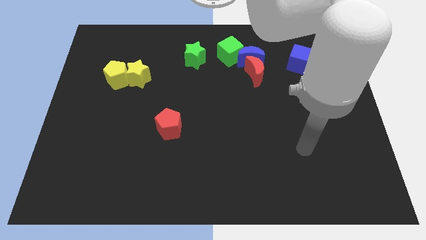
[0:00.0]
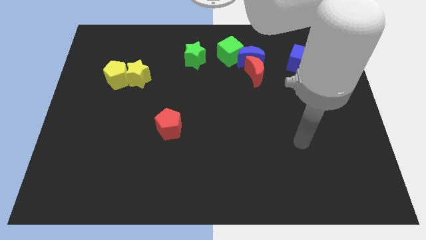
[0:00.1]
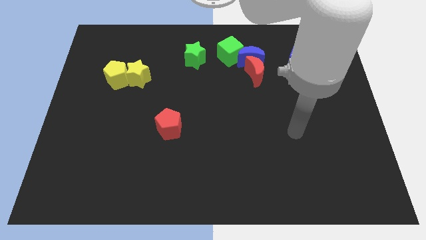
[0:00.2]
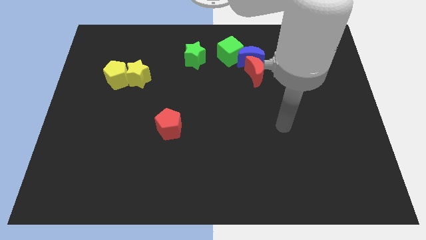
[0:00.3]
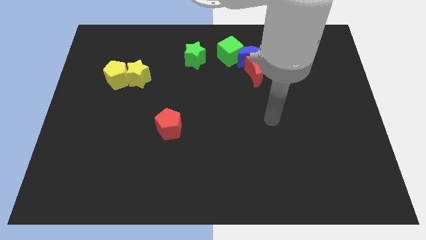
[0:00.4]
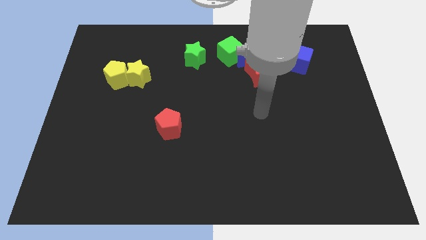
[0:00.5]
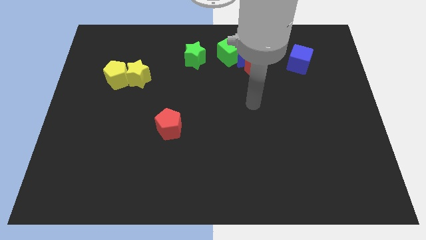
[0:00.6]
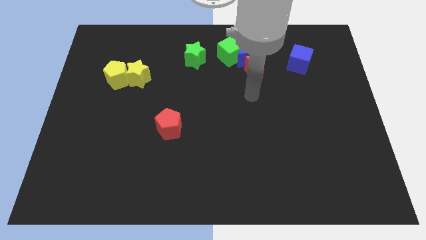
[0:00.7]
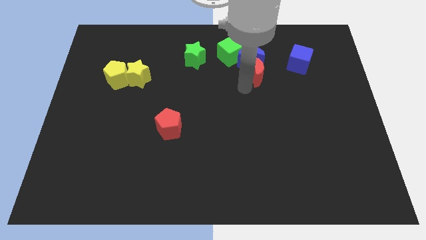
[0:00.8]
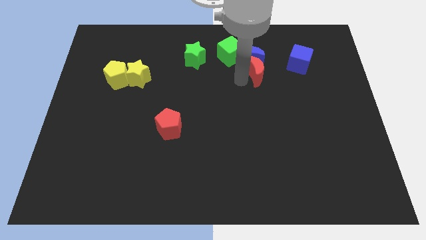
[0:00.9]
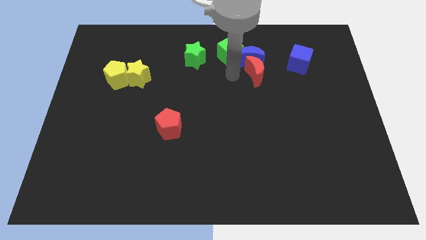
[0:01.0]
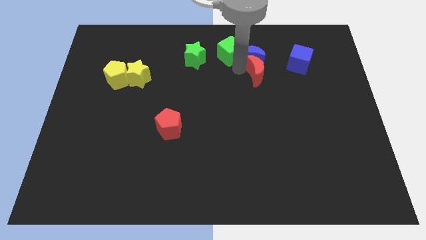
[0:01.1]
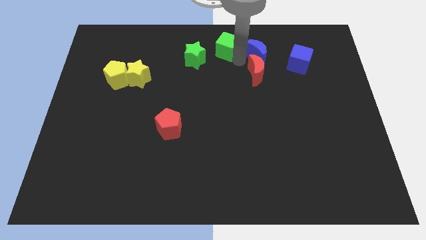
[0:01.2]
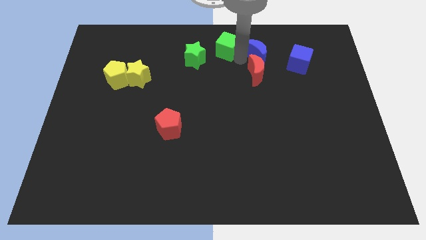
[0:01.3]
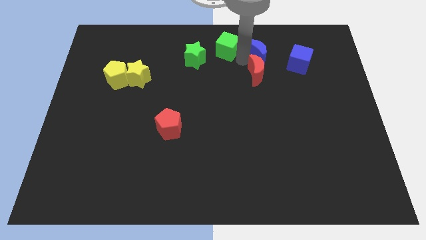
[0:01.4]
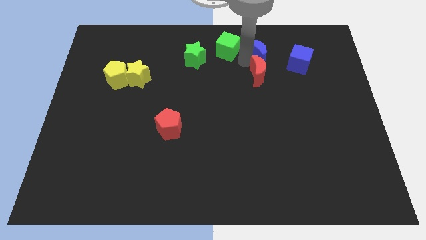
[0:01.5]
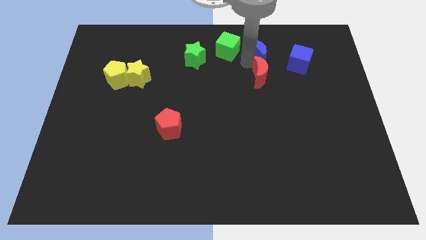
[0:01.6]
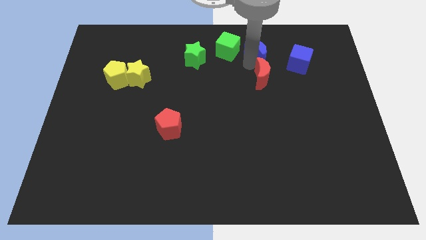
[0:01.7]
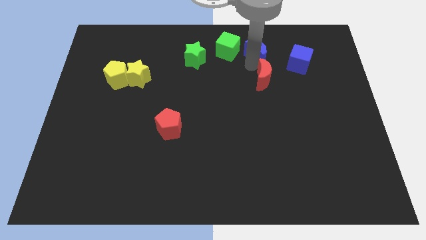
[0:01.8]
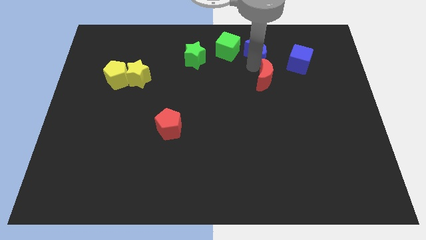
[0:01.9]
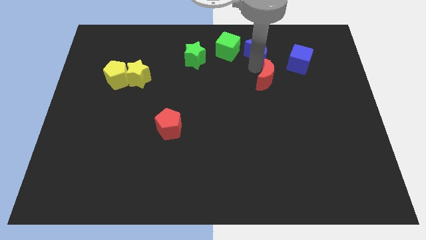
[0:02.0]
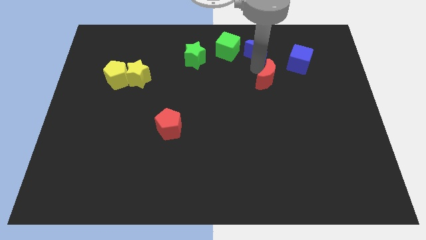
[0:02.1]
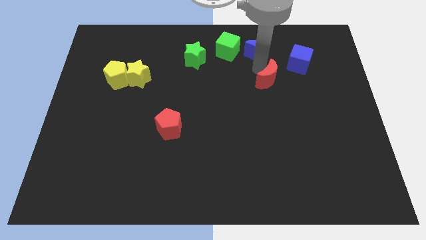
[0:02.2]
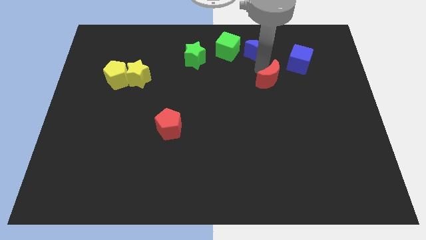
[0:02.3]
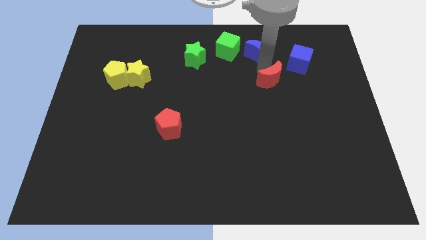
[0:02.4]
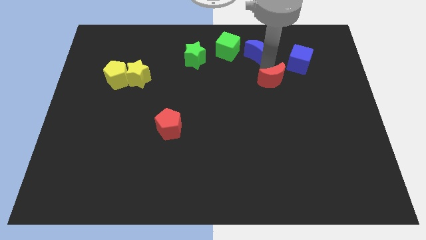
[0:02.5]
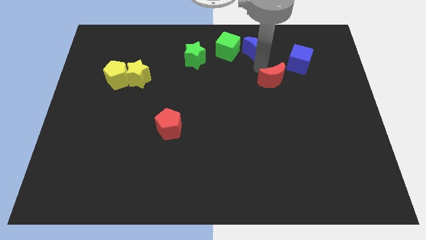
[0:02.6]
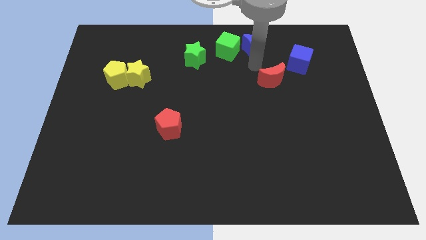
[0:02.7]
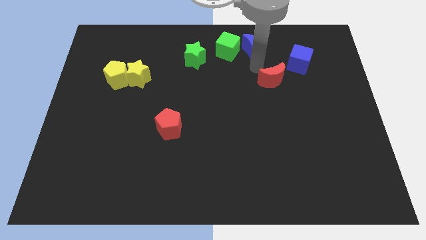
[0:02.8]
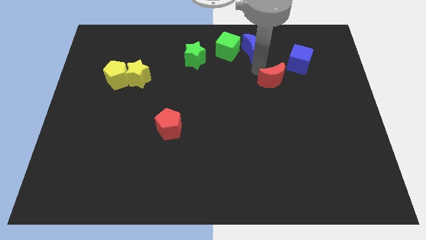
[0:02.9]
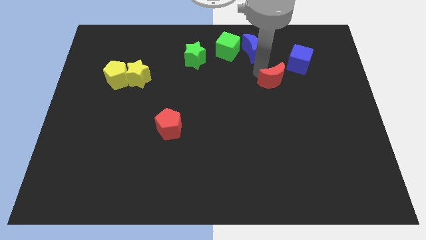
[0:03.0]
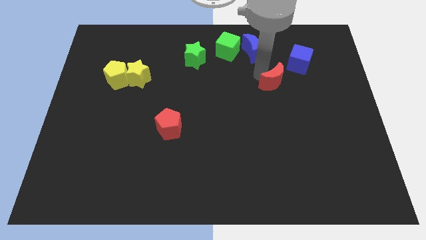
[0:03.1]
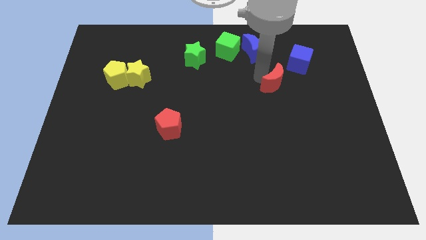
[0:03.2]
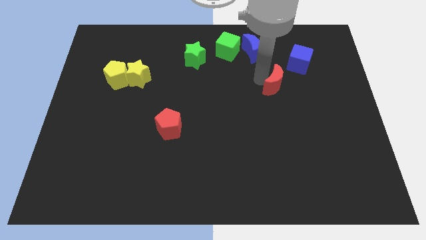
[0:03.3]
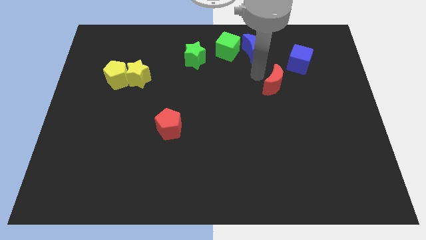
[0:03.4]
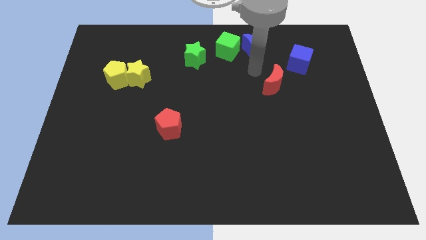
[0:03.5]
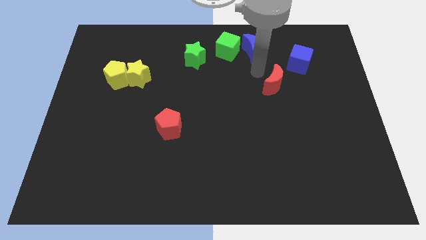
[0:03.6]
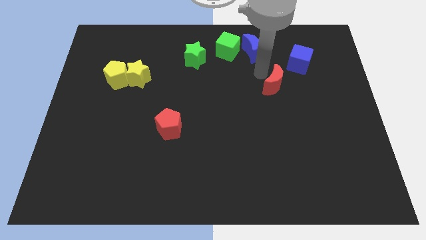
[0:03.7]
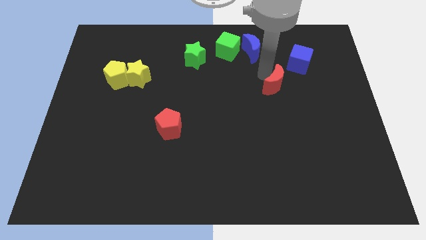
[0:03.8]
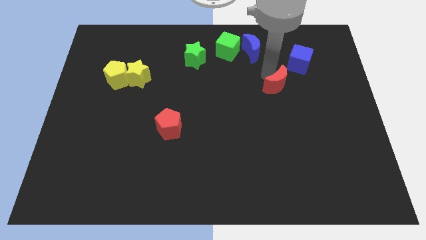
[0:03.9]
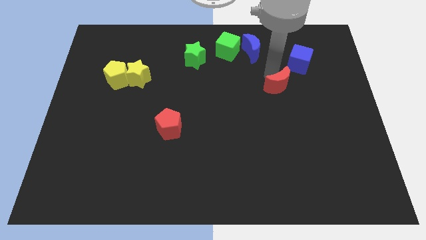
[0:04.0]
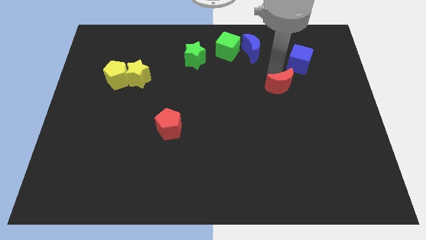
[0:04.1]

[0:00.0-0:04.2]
move the red moon diagonally downwards and right a little

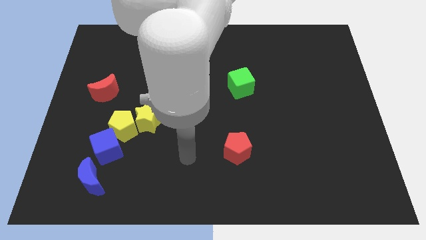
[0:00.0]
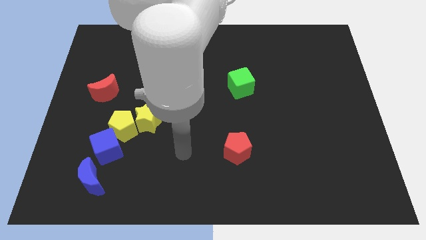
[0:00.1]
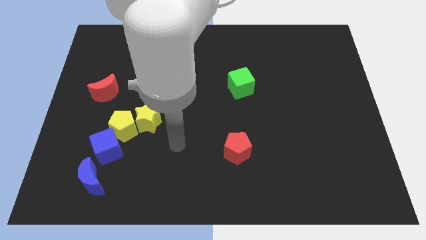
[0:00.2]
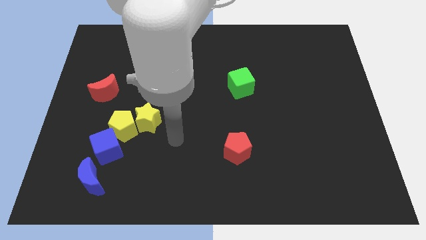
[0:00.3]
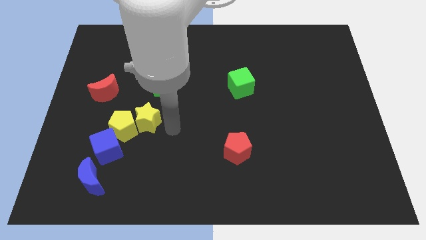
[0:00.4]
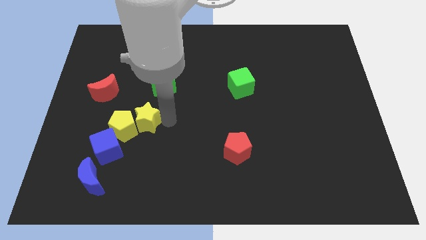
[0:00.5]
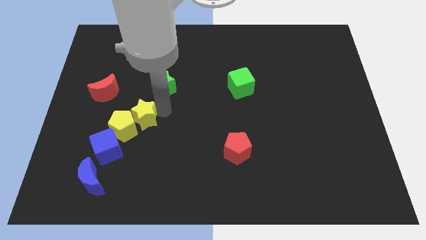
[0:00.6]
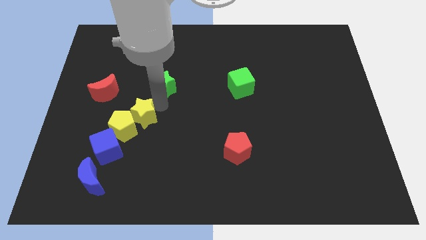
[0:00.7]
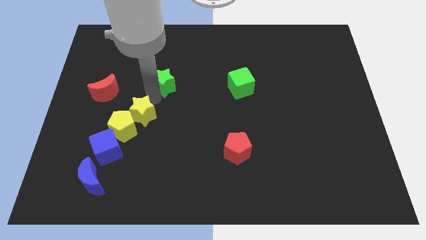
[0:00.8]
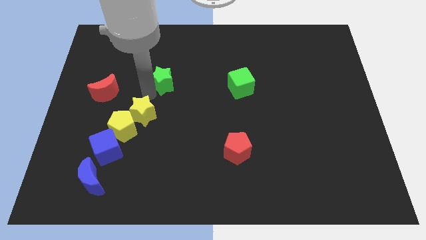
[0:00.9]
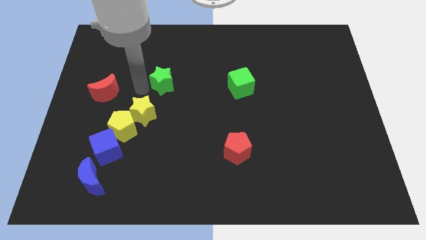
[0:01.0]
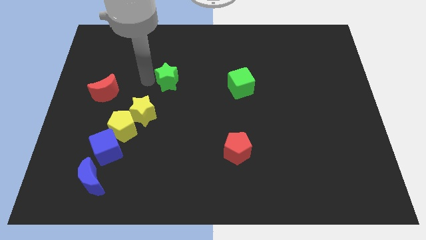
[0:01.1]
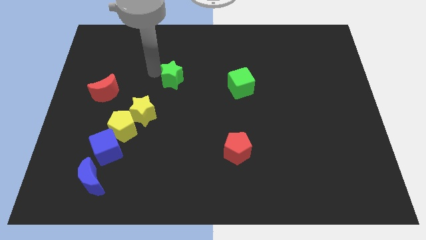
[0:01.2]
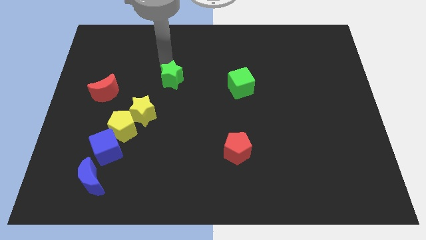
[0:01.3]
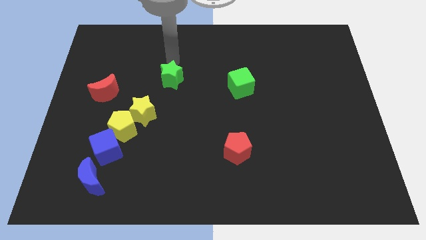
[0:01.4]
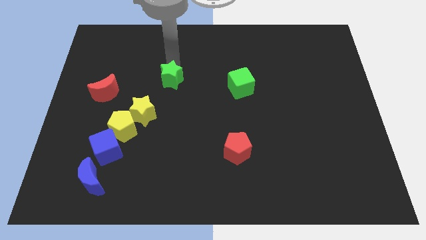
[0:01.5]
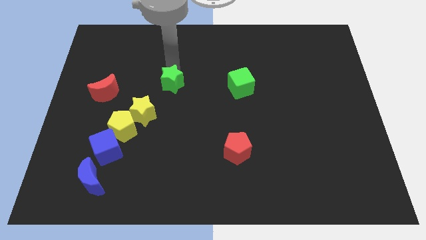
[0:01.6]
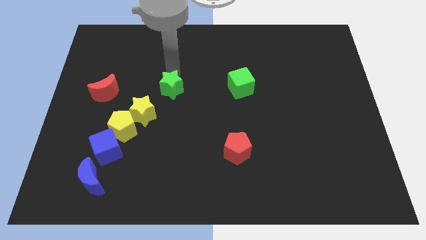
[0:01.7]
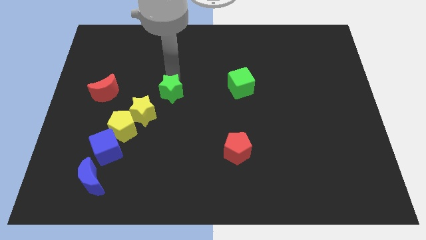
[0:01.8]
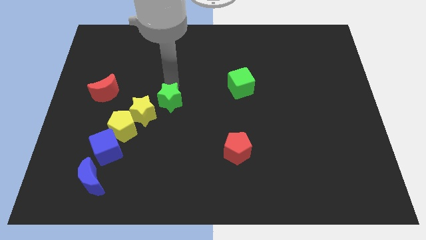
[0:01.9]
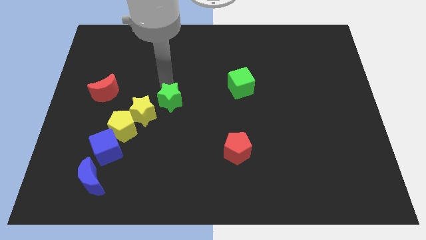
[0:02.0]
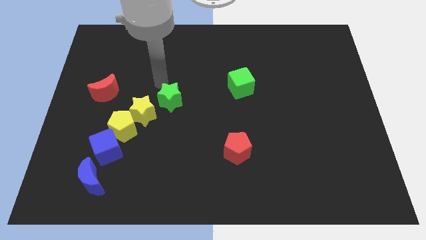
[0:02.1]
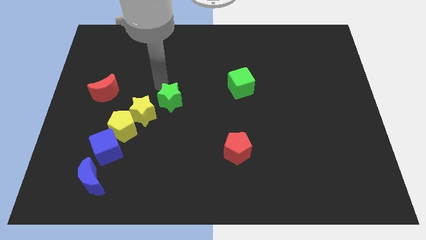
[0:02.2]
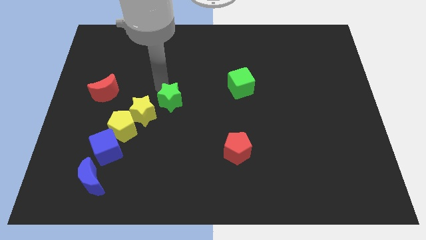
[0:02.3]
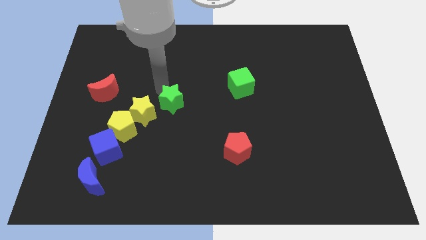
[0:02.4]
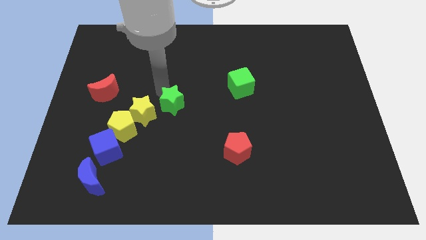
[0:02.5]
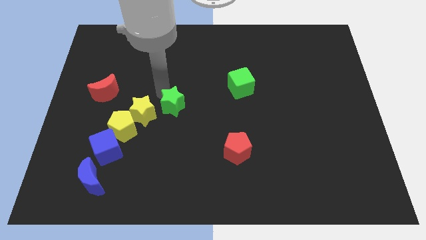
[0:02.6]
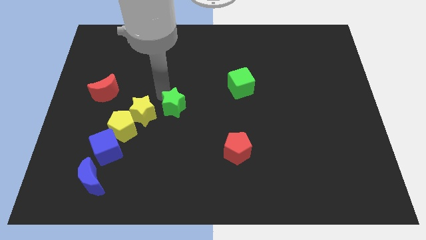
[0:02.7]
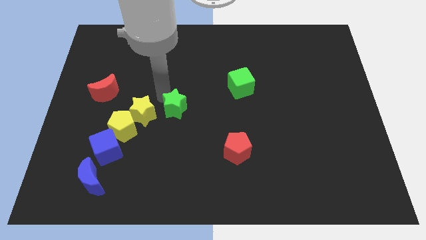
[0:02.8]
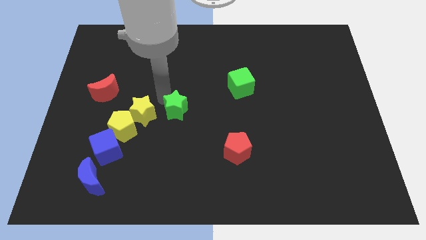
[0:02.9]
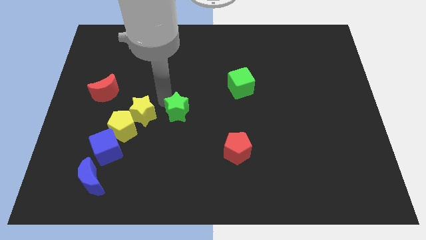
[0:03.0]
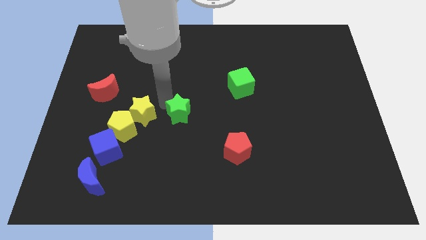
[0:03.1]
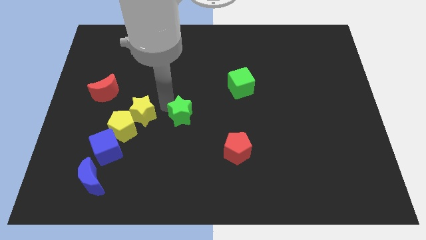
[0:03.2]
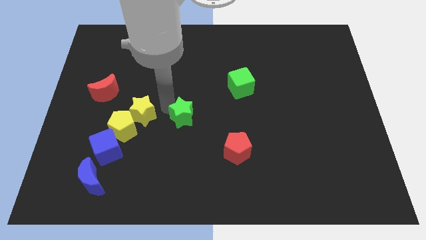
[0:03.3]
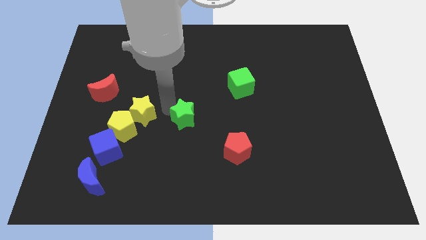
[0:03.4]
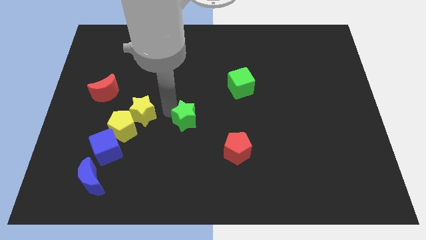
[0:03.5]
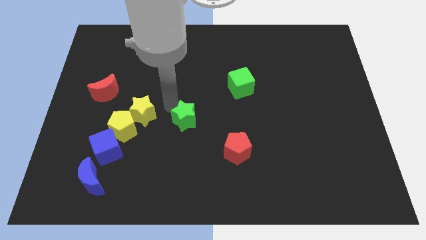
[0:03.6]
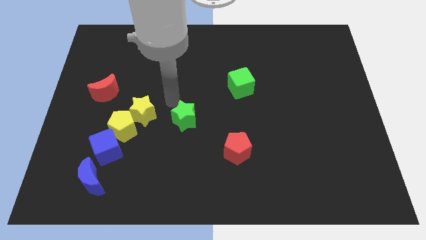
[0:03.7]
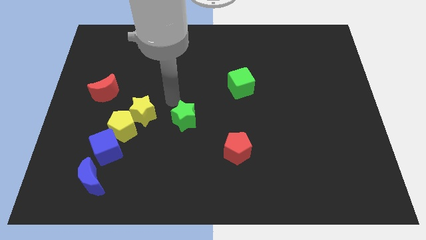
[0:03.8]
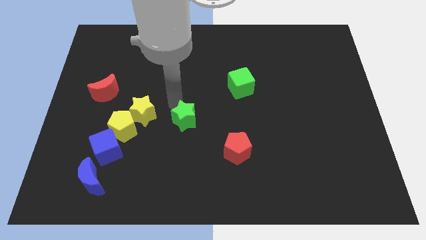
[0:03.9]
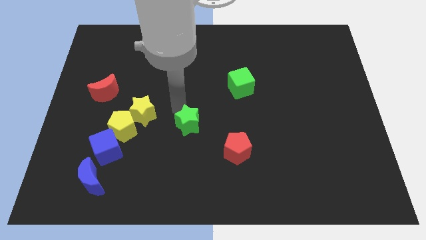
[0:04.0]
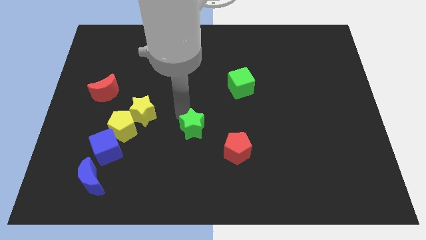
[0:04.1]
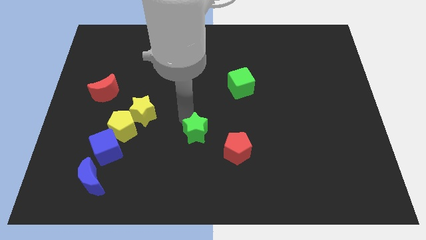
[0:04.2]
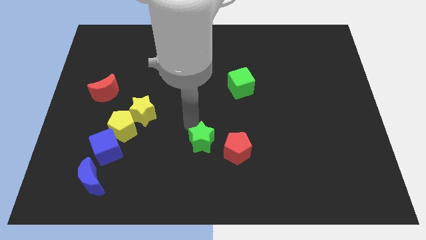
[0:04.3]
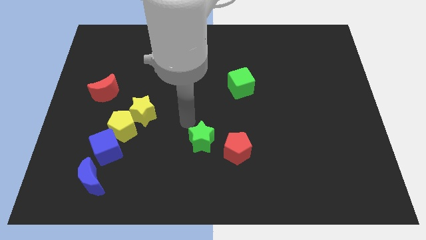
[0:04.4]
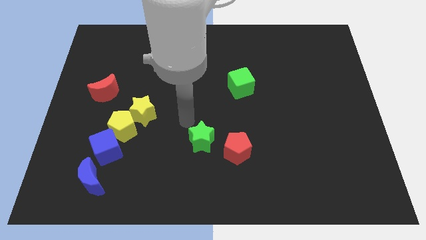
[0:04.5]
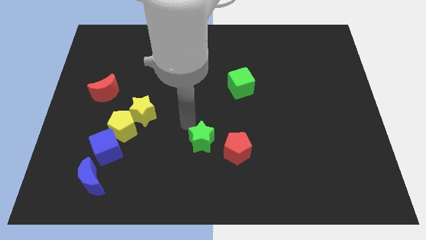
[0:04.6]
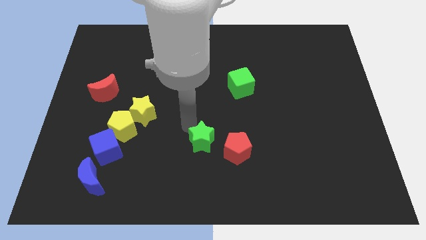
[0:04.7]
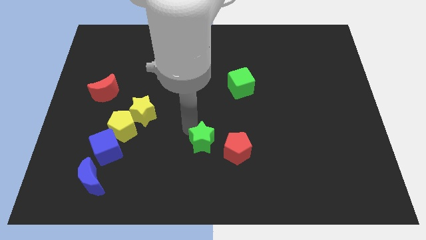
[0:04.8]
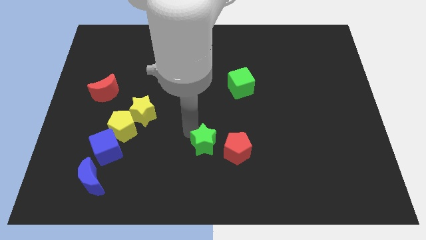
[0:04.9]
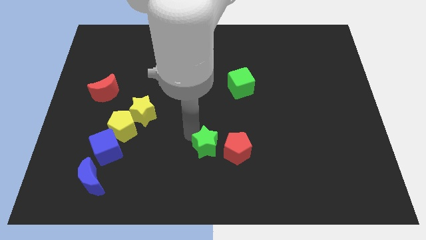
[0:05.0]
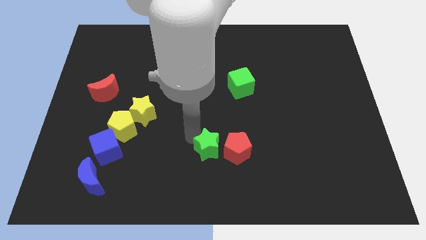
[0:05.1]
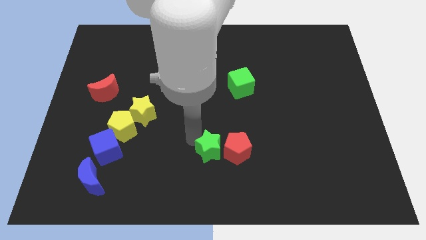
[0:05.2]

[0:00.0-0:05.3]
slide the green star diagonally down and to the right
